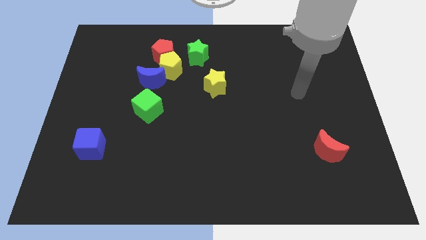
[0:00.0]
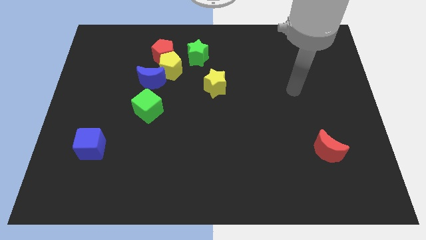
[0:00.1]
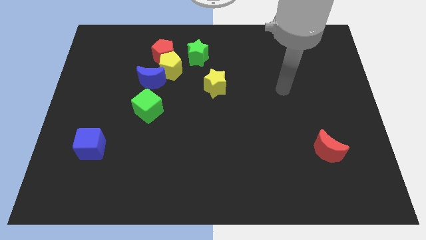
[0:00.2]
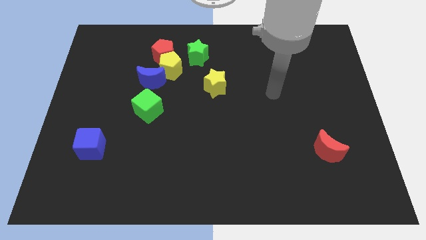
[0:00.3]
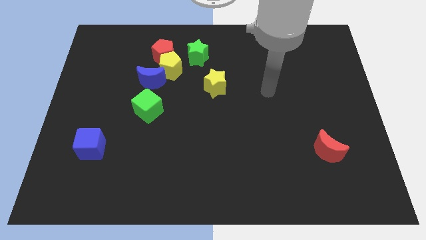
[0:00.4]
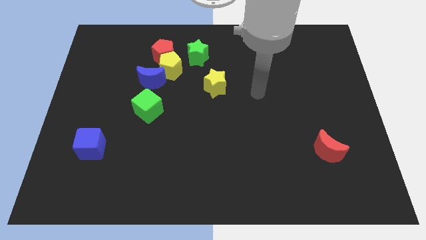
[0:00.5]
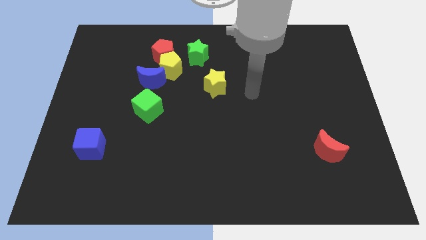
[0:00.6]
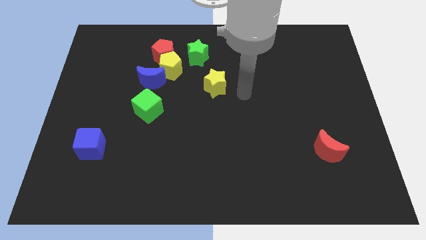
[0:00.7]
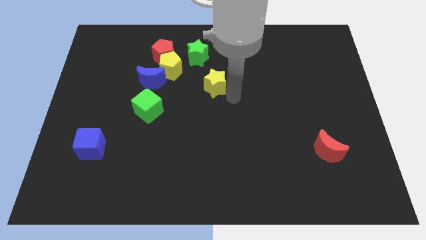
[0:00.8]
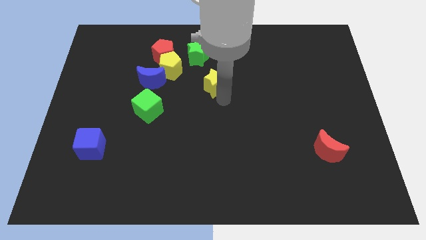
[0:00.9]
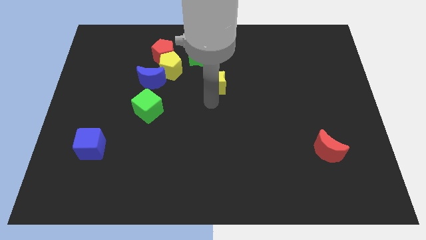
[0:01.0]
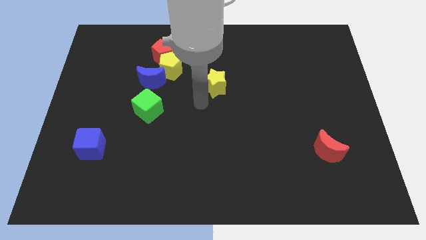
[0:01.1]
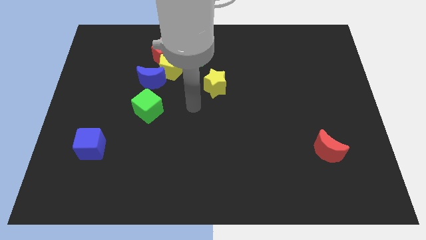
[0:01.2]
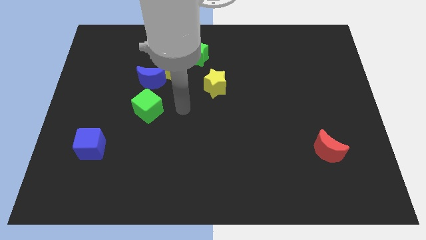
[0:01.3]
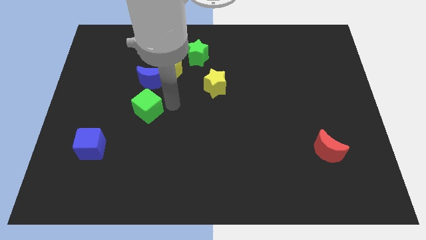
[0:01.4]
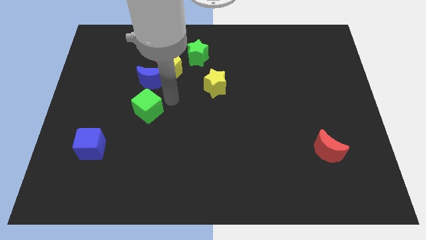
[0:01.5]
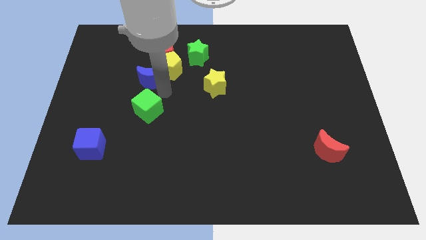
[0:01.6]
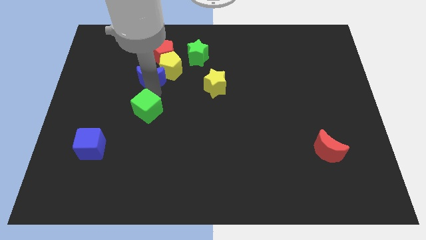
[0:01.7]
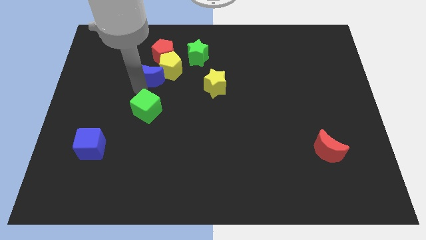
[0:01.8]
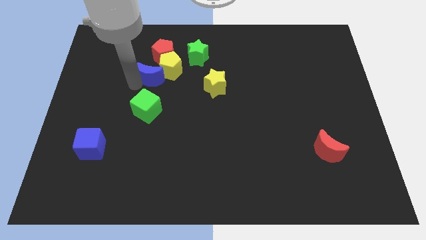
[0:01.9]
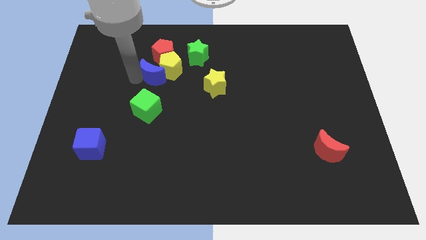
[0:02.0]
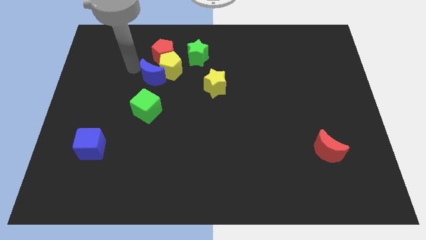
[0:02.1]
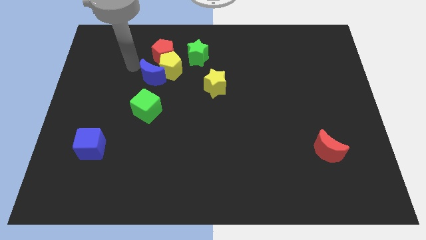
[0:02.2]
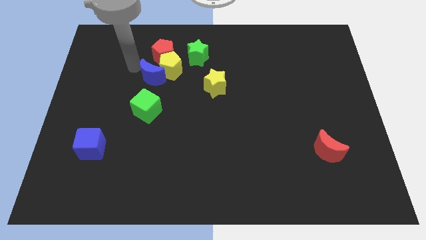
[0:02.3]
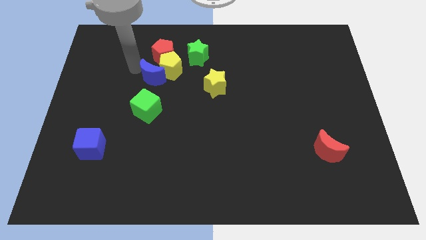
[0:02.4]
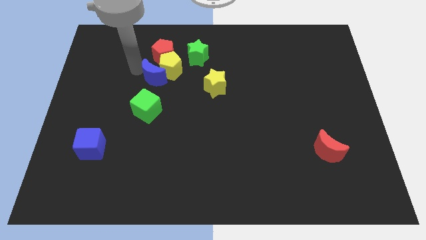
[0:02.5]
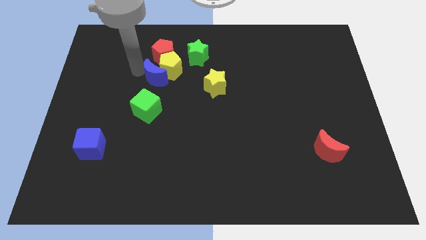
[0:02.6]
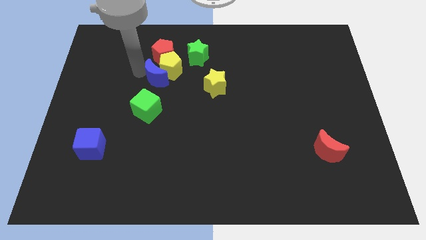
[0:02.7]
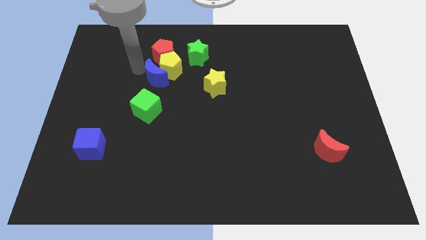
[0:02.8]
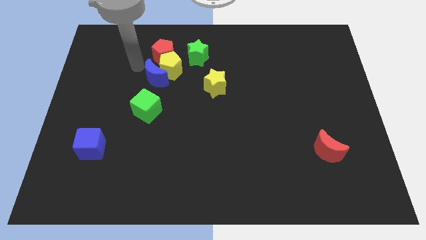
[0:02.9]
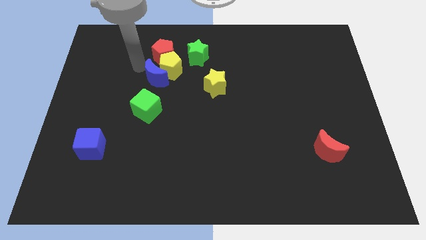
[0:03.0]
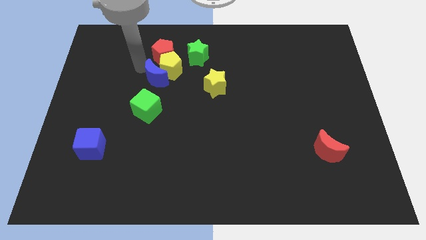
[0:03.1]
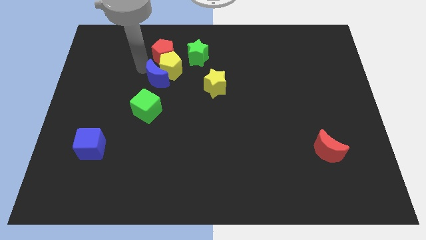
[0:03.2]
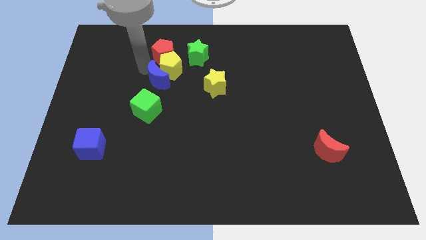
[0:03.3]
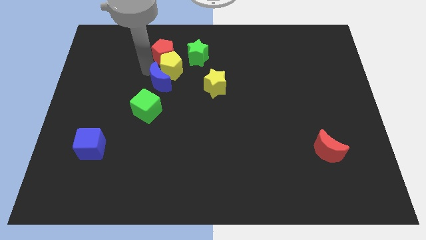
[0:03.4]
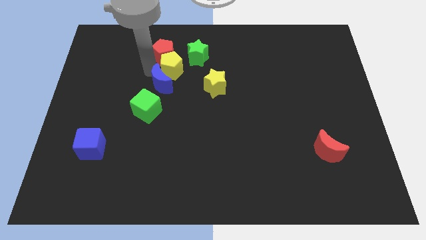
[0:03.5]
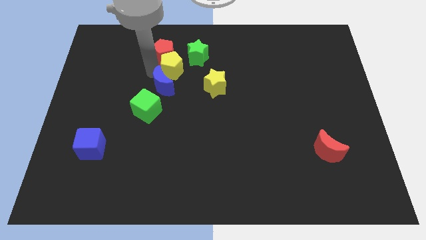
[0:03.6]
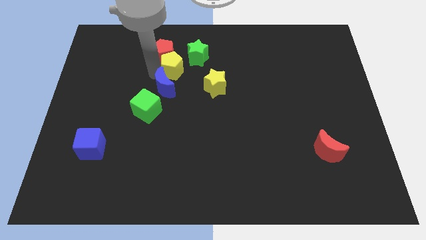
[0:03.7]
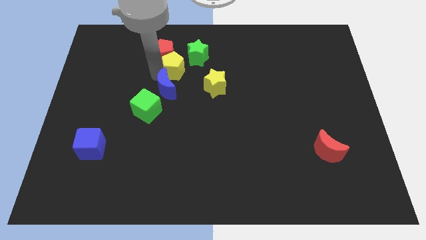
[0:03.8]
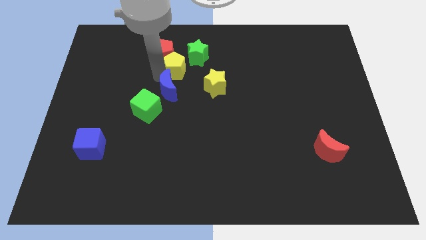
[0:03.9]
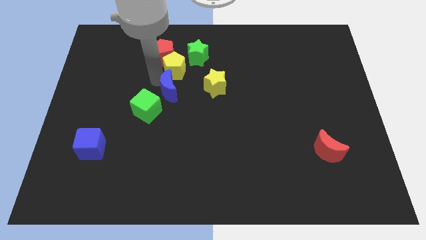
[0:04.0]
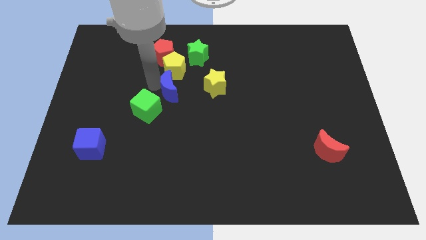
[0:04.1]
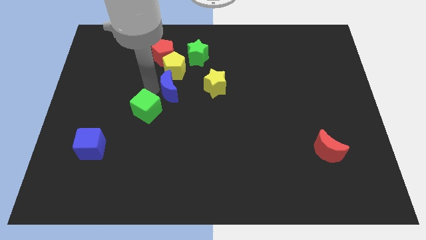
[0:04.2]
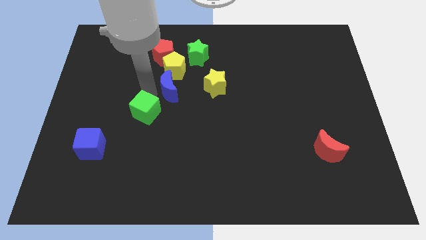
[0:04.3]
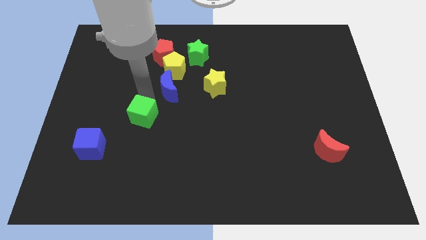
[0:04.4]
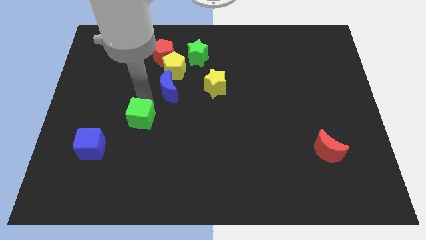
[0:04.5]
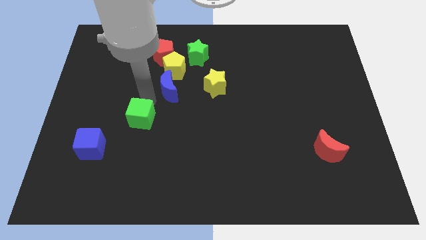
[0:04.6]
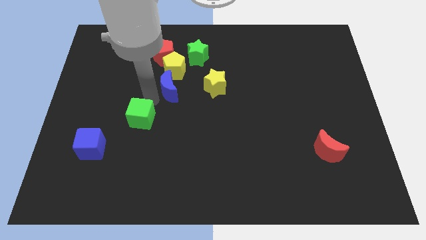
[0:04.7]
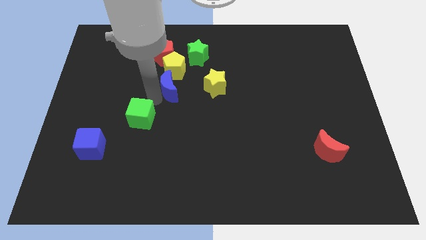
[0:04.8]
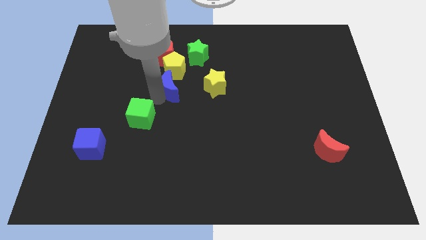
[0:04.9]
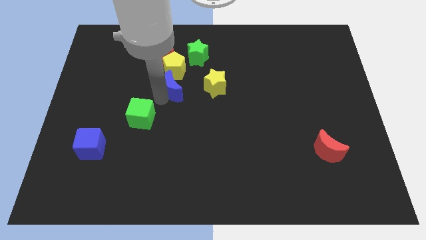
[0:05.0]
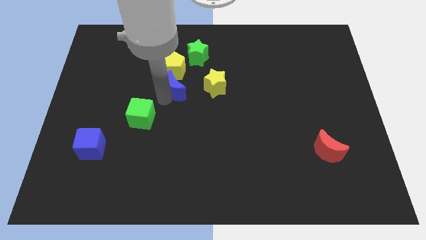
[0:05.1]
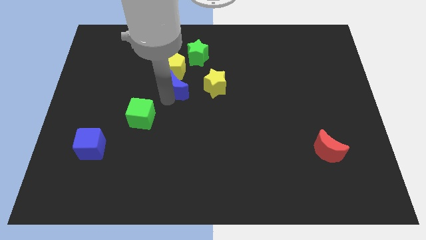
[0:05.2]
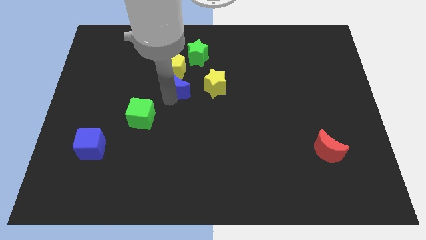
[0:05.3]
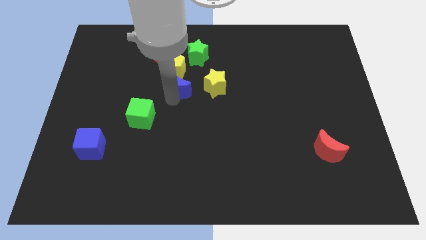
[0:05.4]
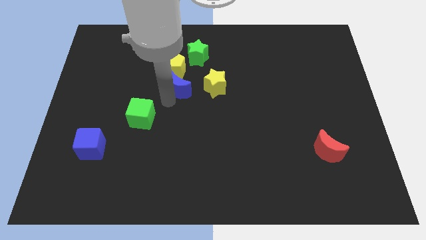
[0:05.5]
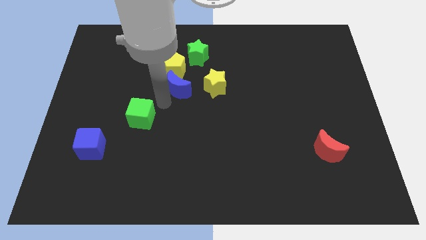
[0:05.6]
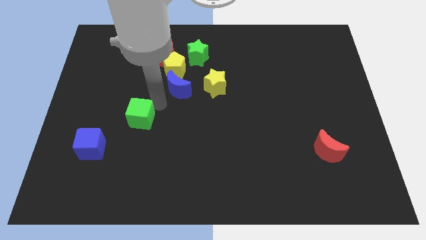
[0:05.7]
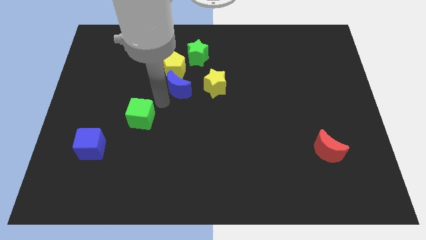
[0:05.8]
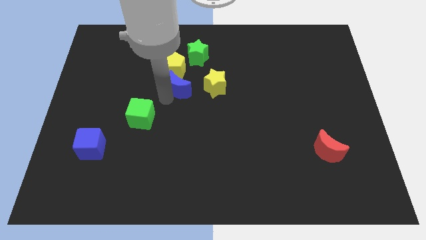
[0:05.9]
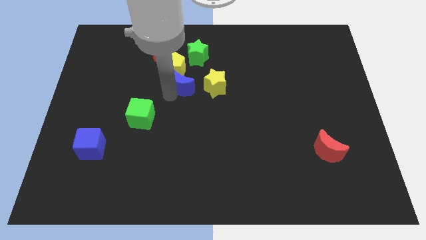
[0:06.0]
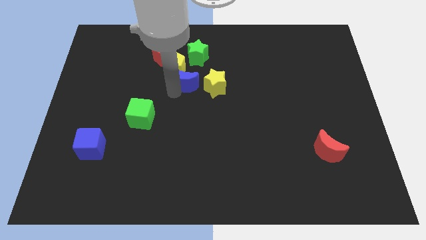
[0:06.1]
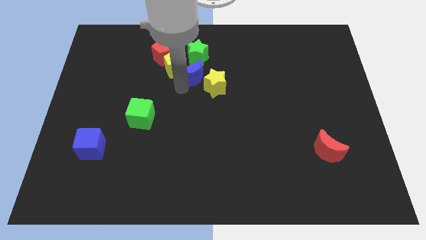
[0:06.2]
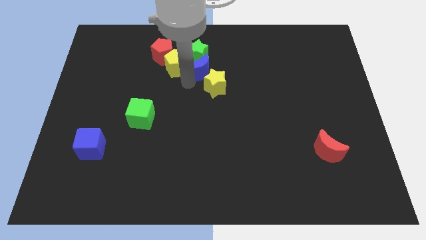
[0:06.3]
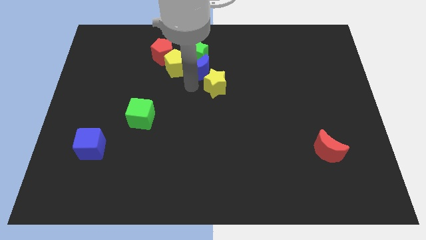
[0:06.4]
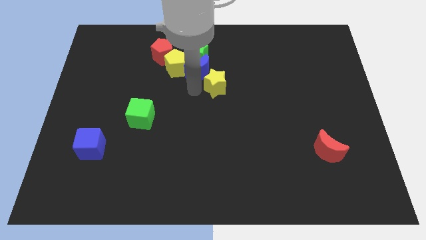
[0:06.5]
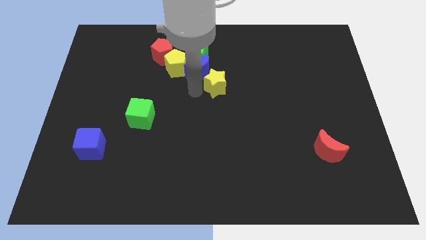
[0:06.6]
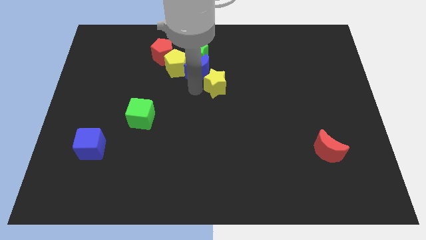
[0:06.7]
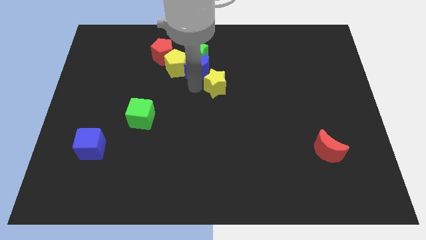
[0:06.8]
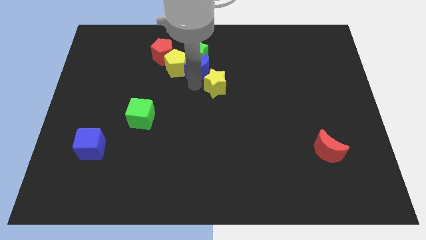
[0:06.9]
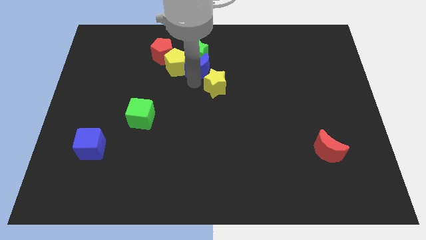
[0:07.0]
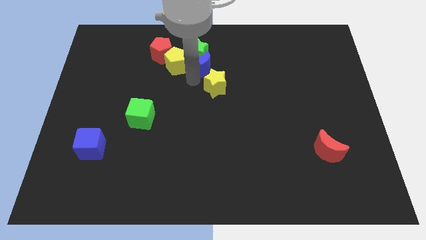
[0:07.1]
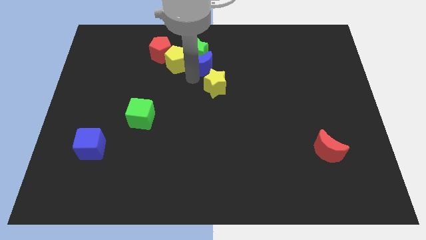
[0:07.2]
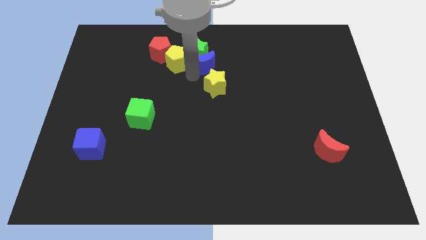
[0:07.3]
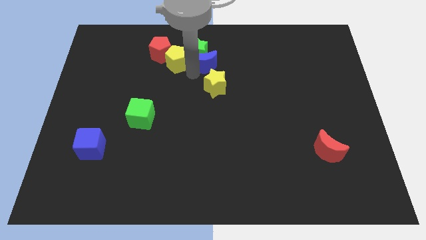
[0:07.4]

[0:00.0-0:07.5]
move the blue moon to the right side of the red pentagon
